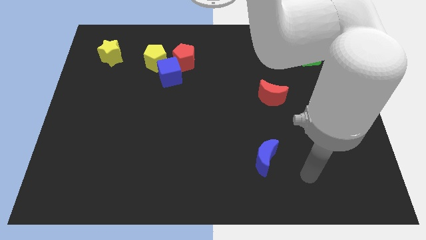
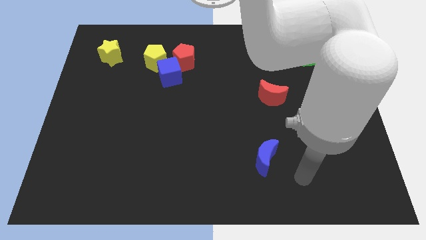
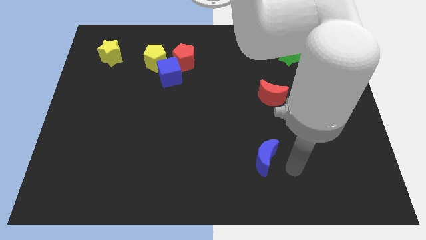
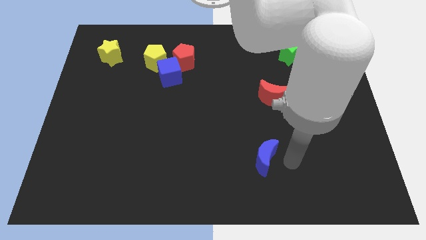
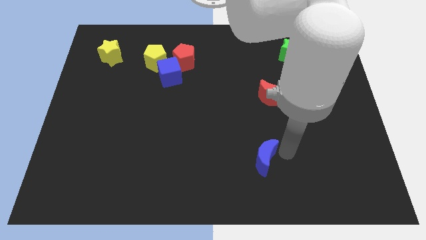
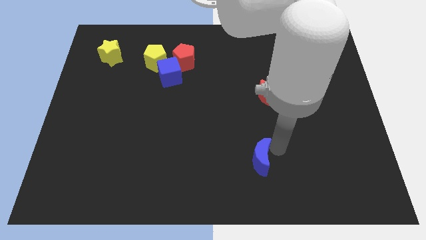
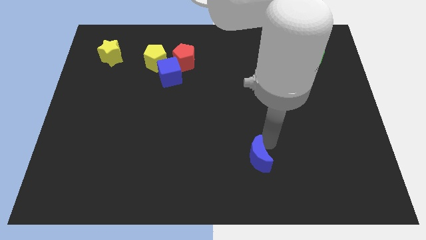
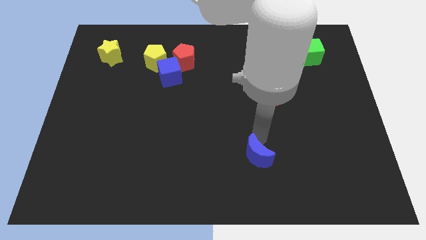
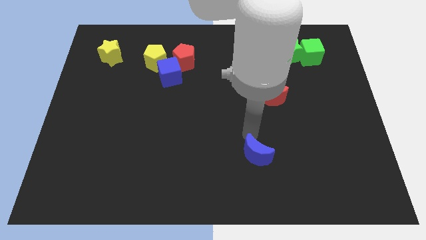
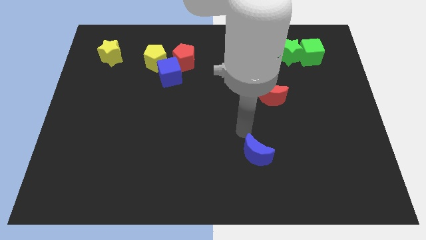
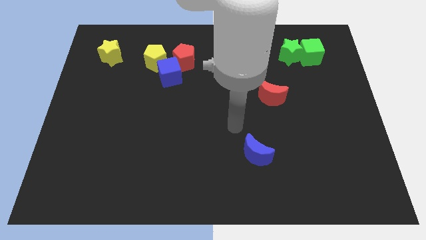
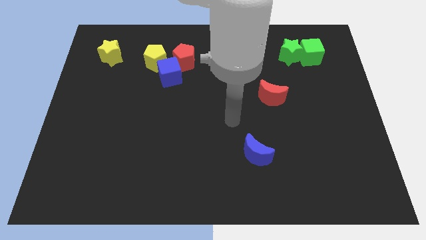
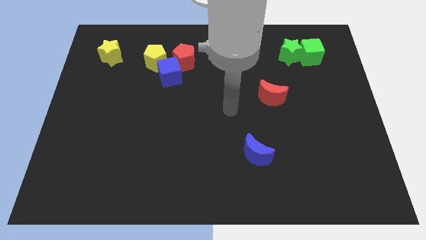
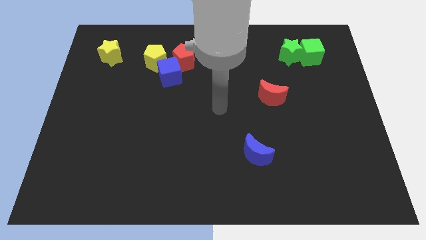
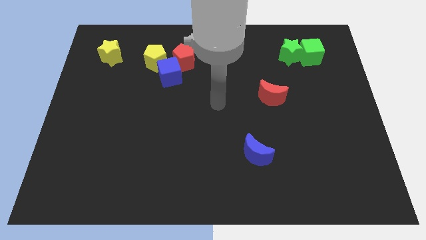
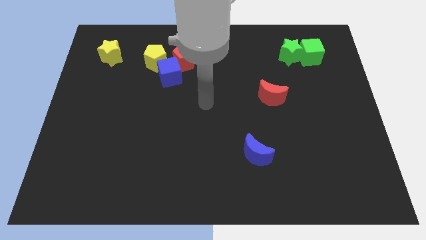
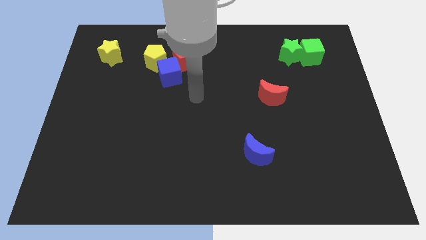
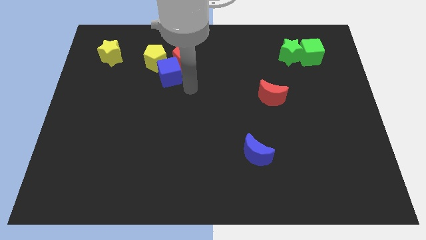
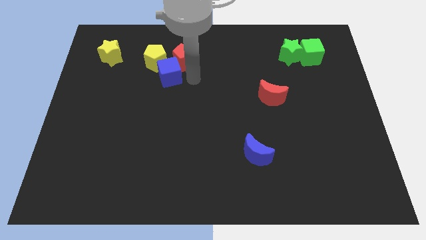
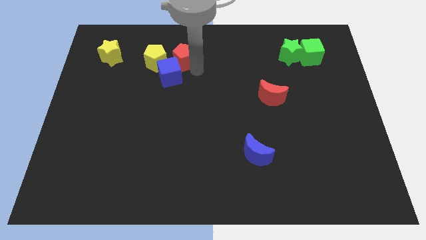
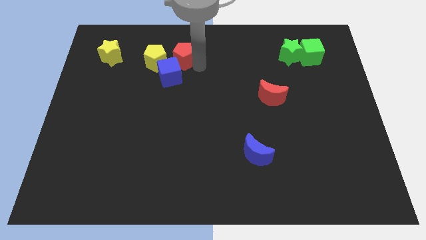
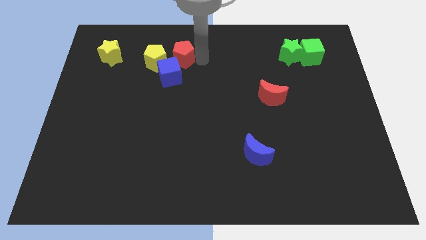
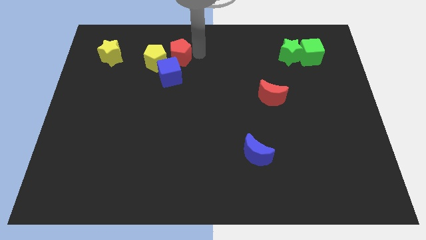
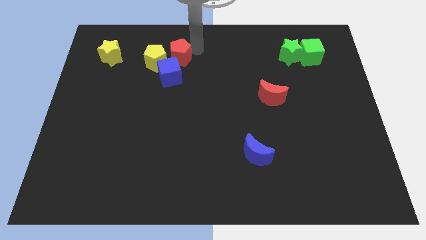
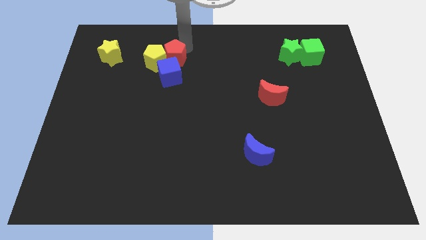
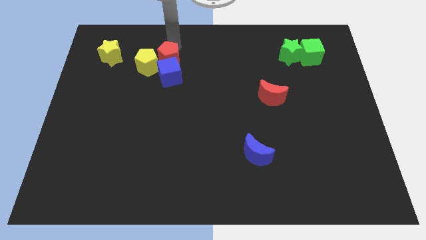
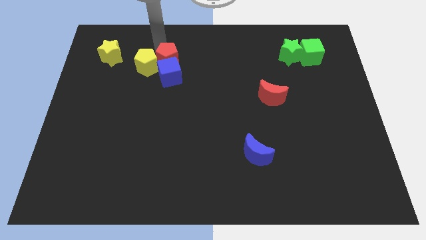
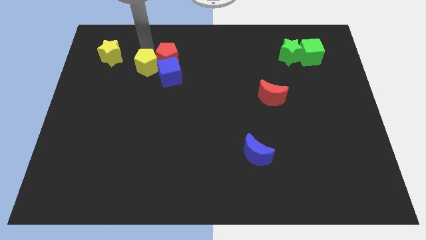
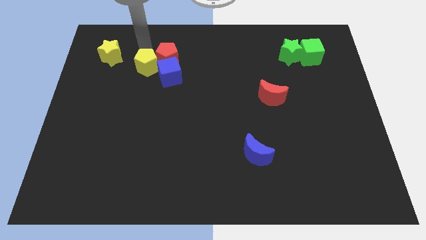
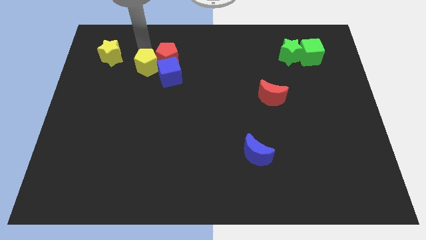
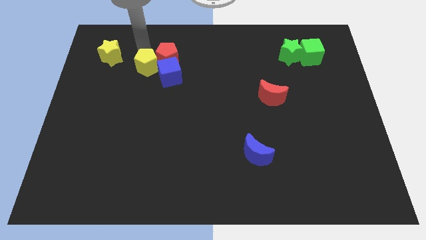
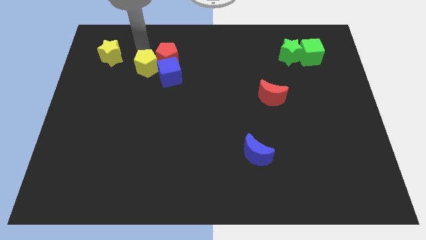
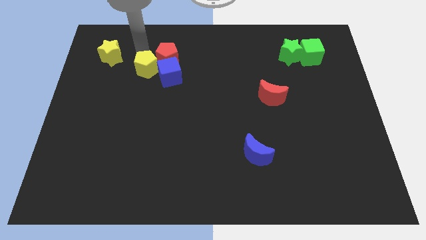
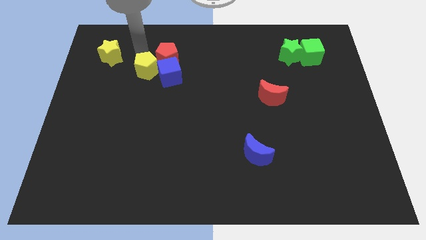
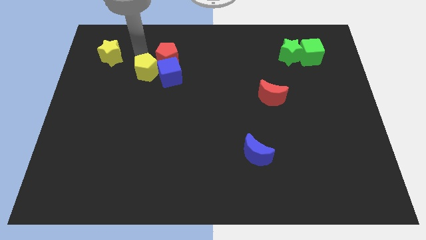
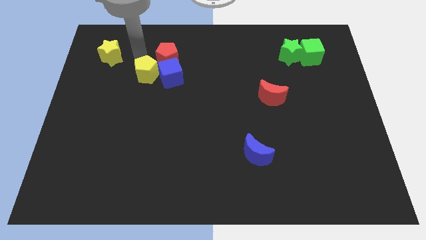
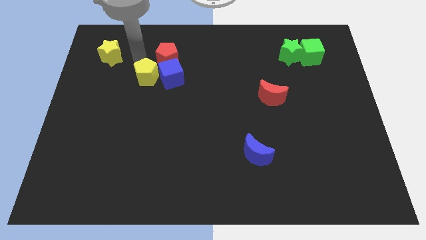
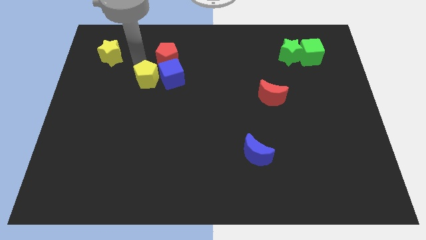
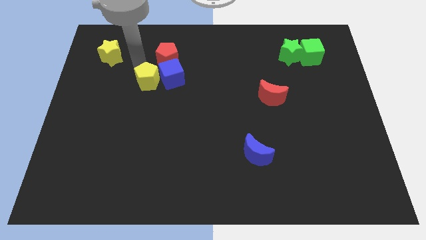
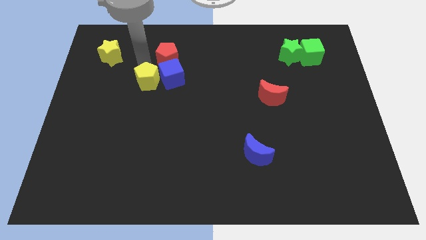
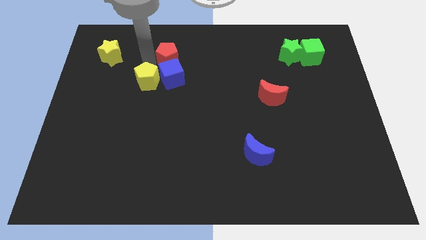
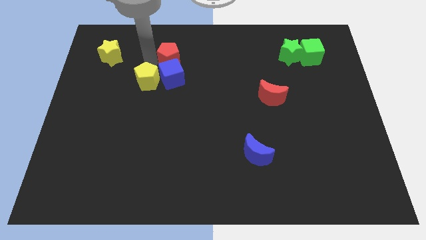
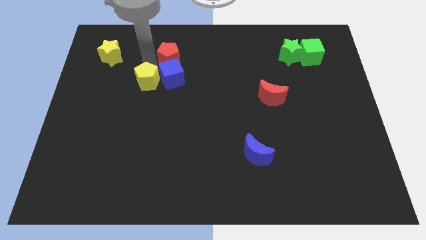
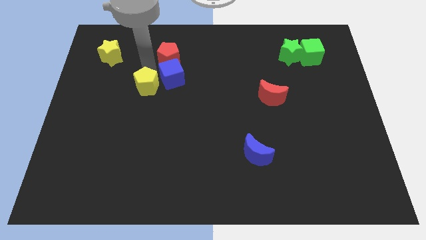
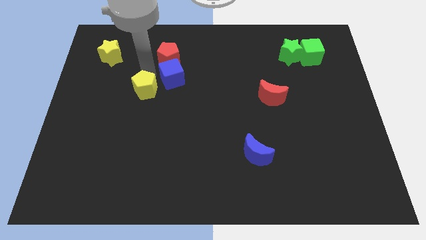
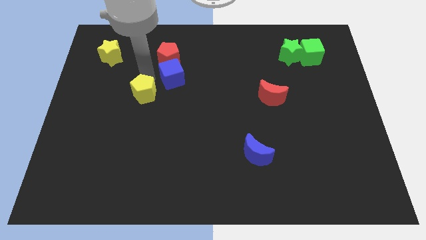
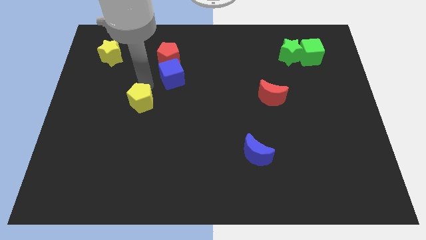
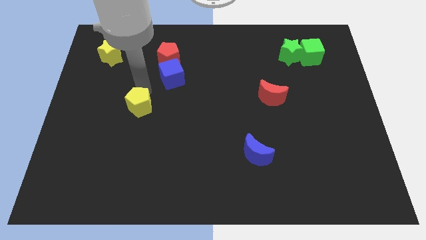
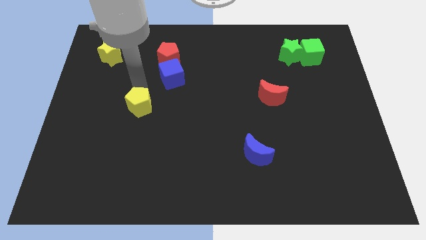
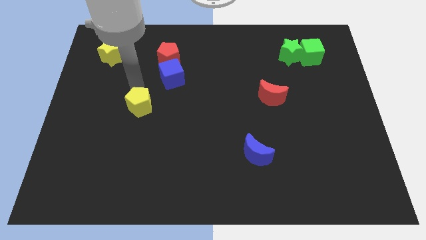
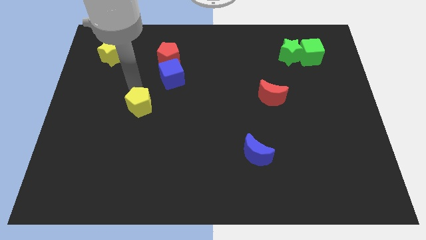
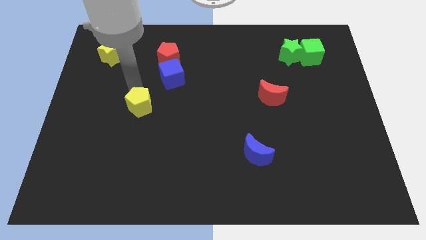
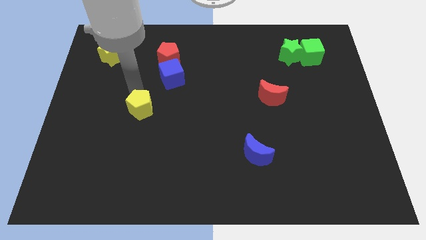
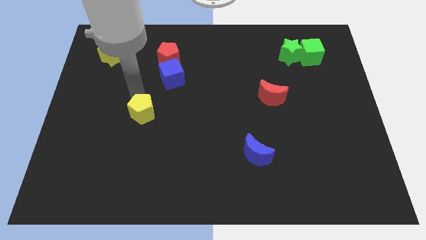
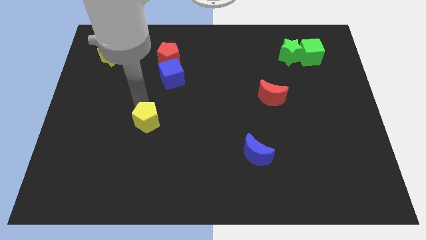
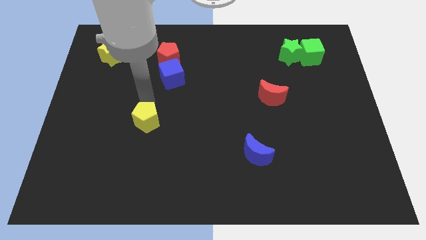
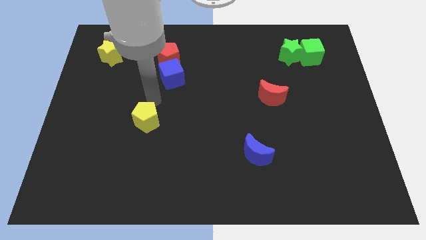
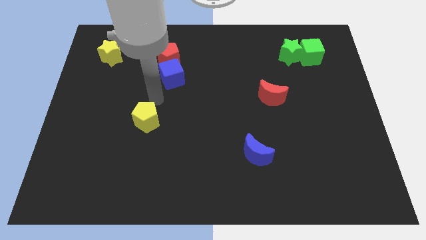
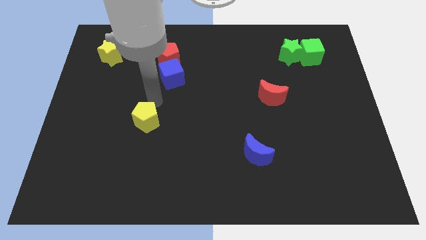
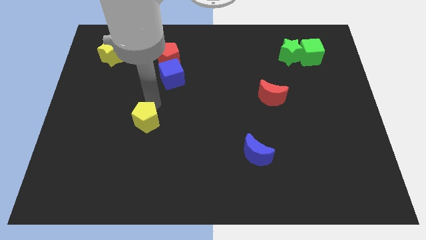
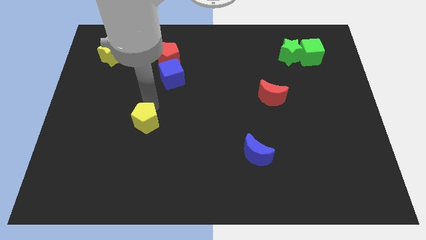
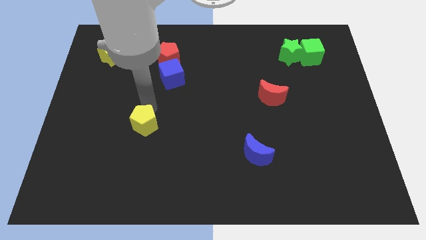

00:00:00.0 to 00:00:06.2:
move the yellow pentagon downwards

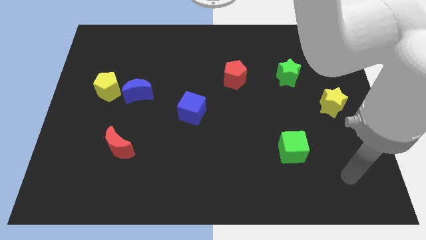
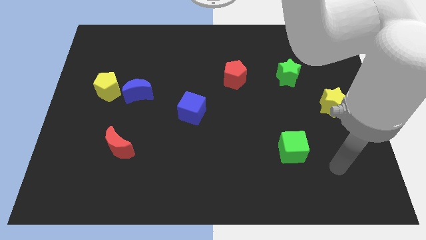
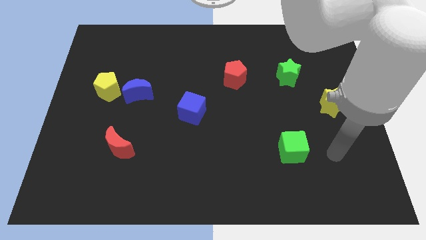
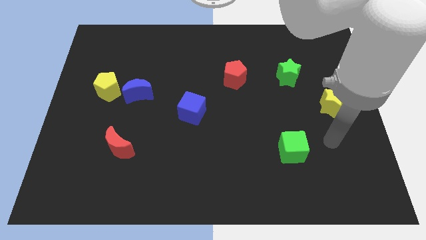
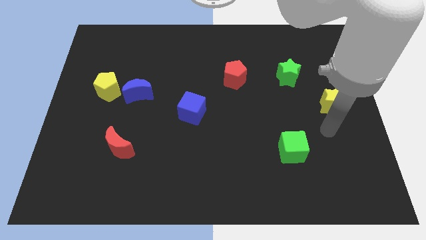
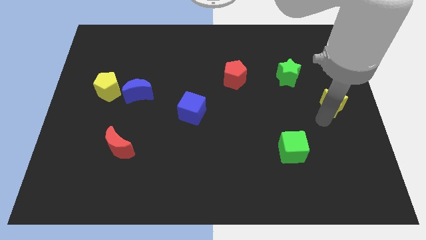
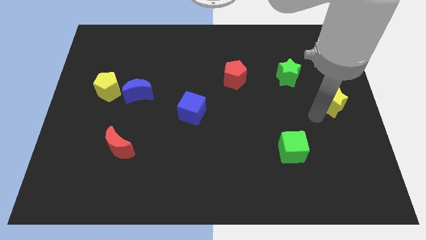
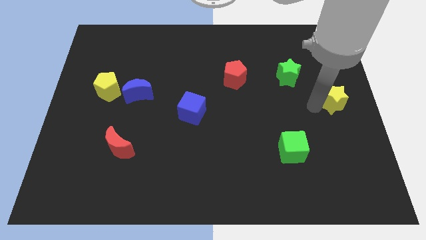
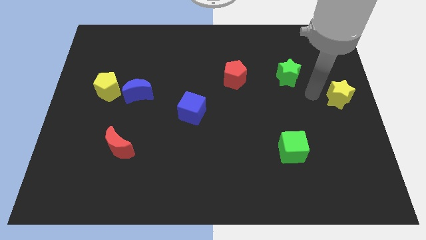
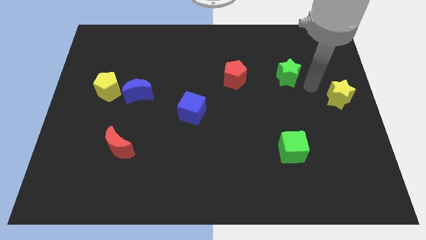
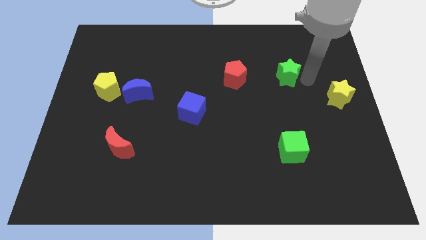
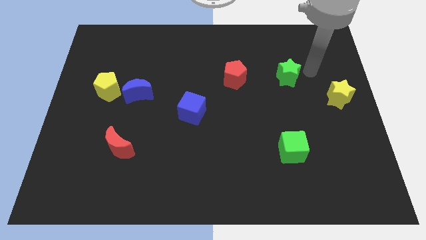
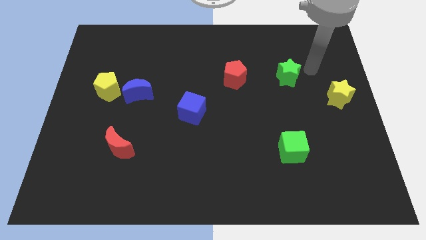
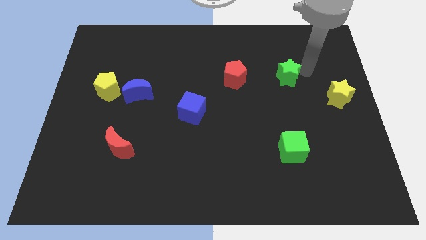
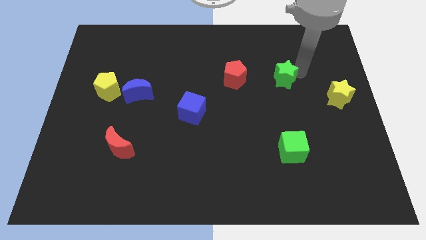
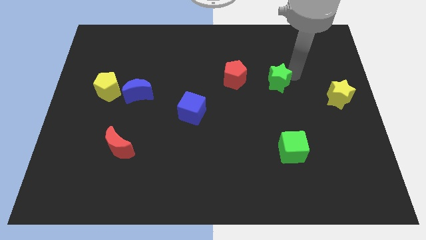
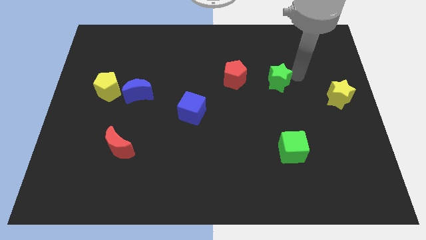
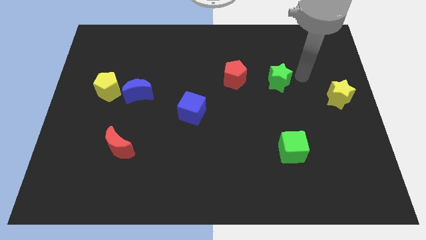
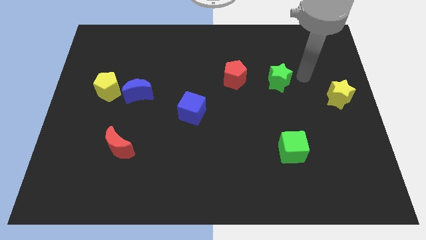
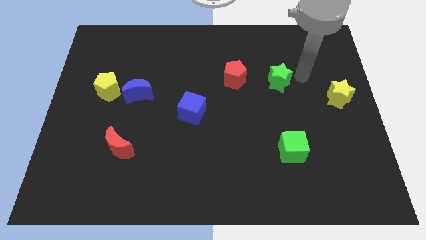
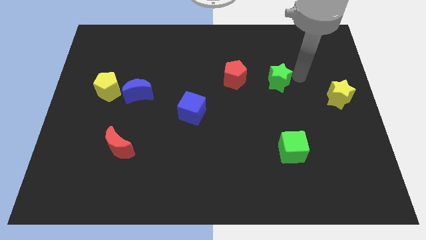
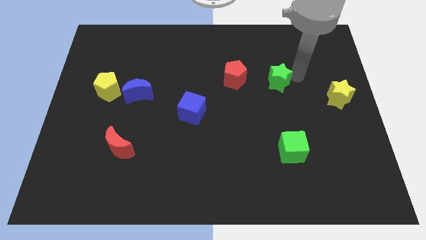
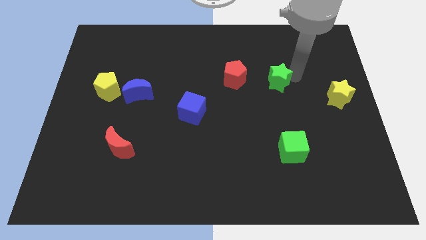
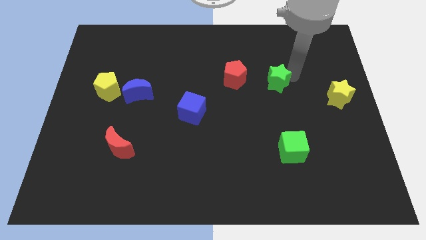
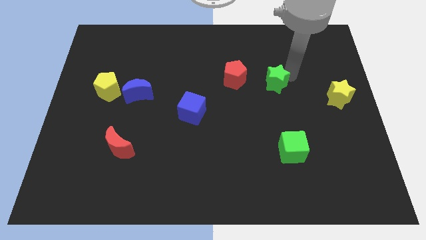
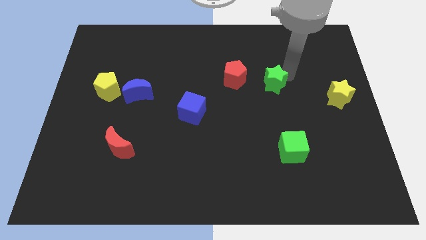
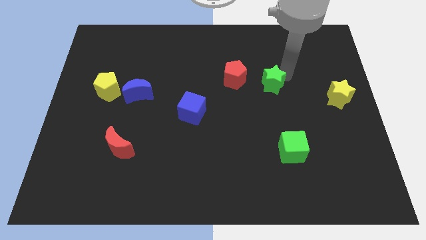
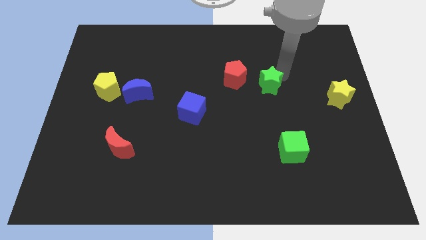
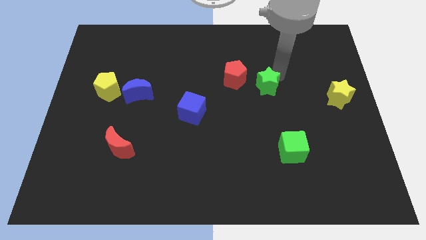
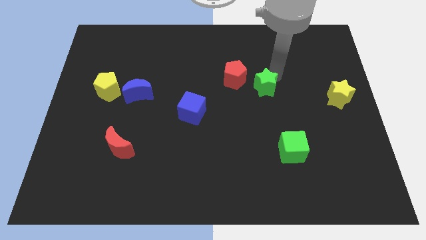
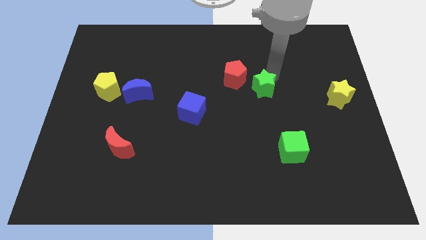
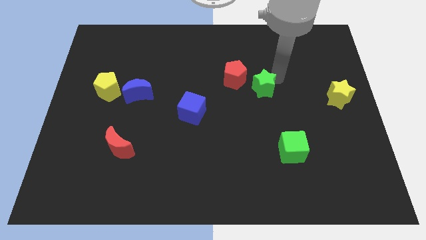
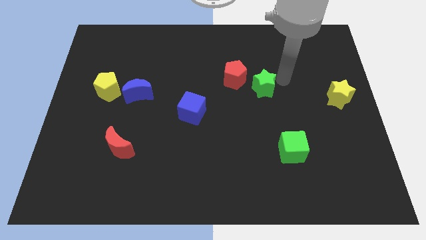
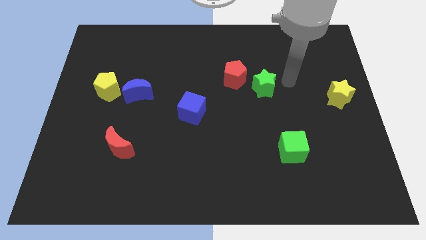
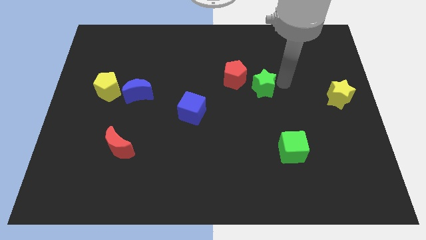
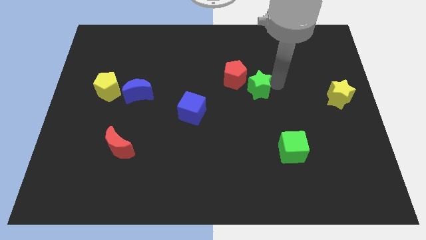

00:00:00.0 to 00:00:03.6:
slightly slide the green star left
